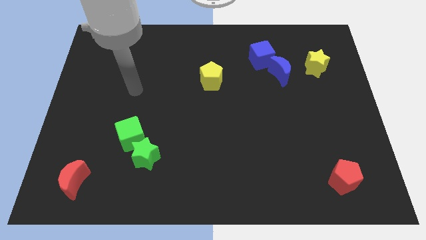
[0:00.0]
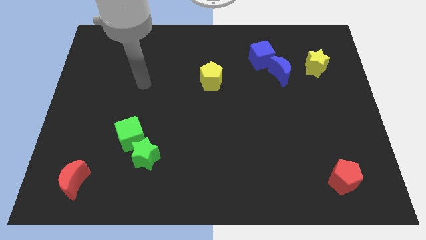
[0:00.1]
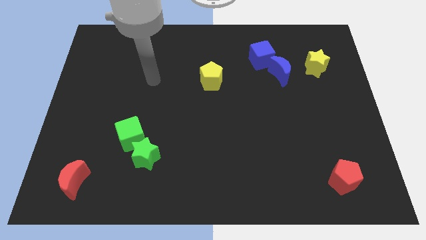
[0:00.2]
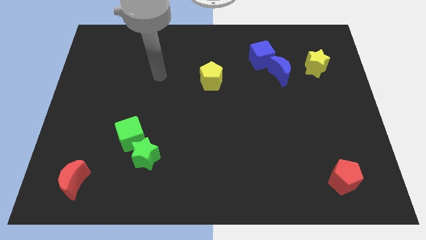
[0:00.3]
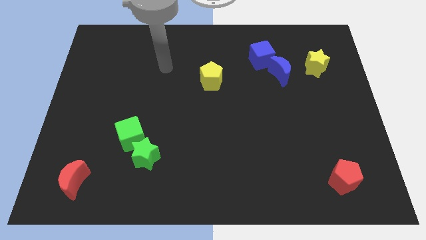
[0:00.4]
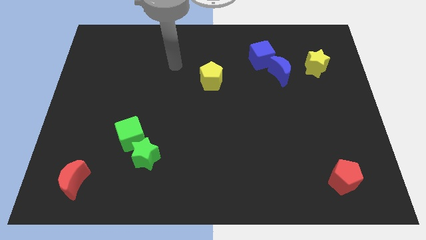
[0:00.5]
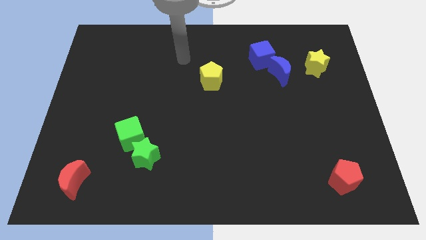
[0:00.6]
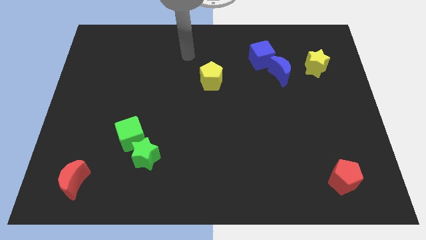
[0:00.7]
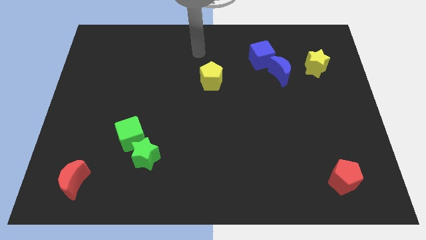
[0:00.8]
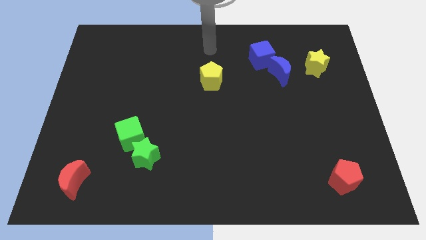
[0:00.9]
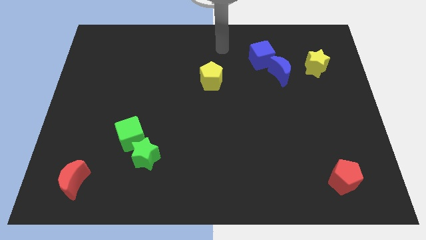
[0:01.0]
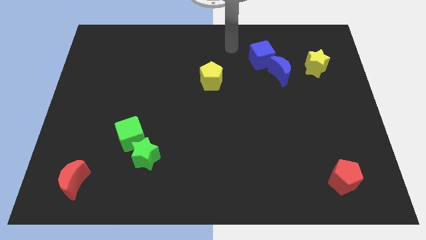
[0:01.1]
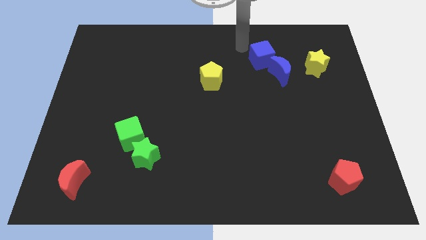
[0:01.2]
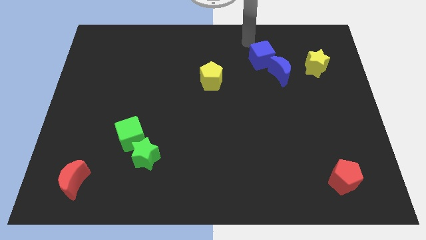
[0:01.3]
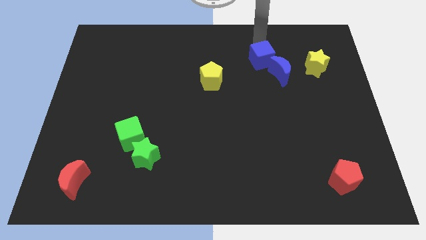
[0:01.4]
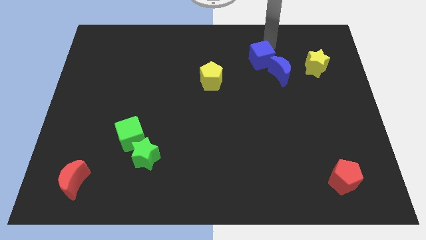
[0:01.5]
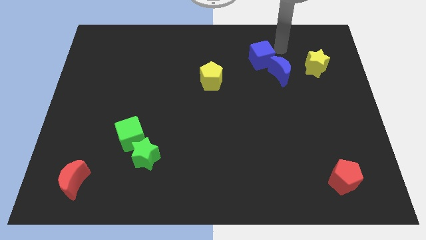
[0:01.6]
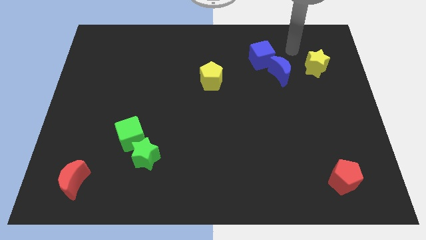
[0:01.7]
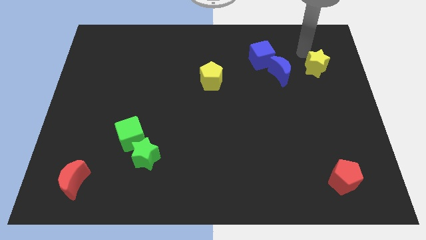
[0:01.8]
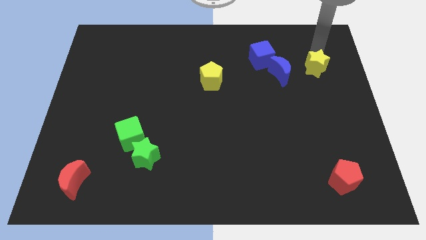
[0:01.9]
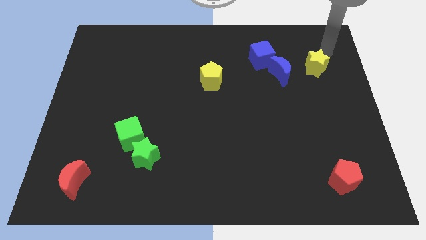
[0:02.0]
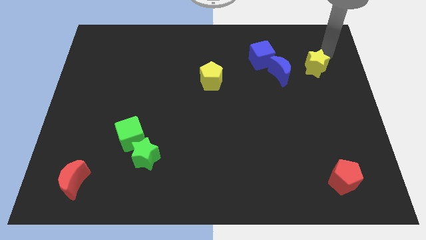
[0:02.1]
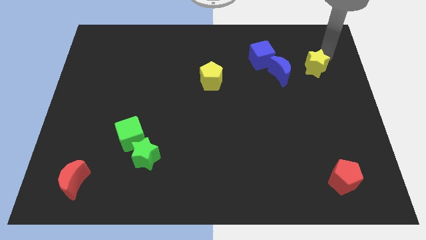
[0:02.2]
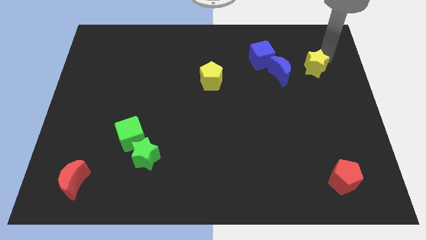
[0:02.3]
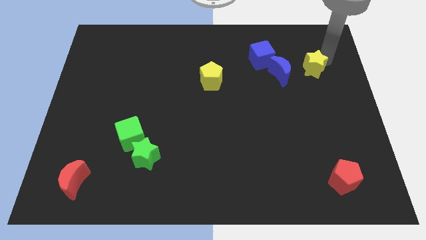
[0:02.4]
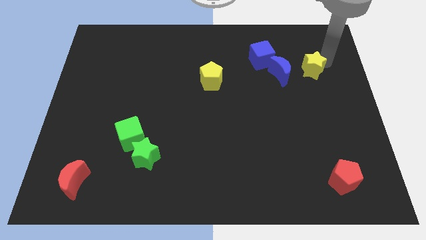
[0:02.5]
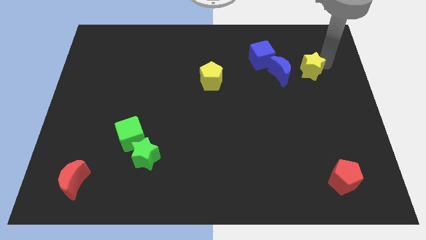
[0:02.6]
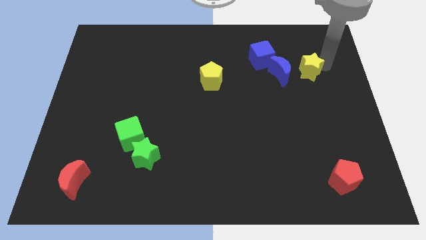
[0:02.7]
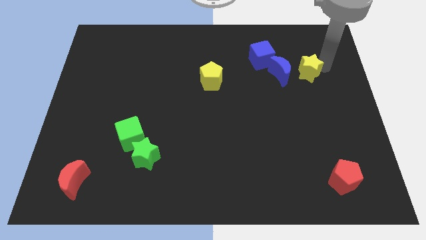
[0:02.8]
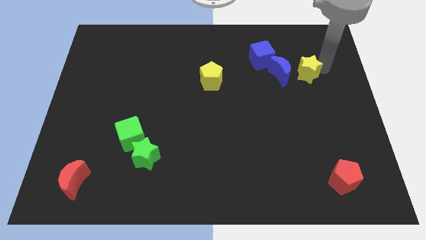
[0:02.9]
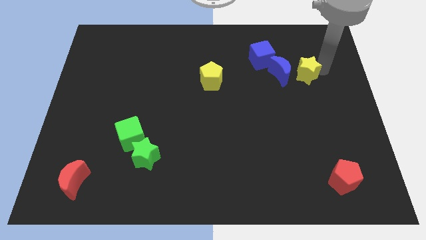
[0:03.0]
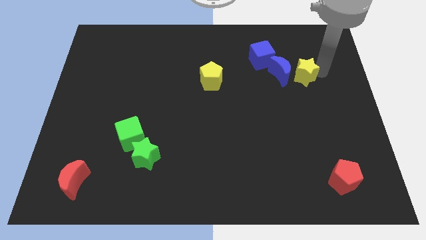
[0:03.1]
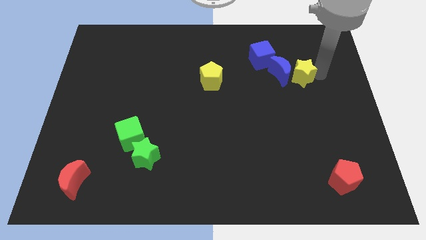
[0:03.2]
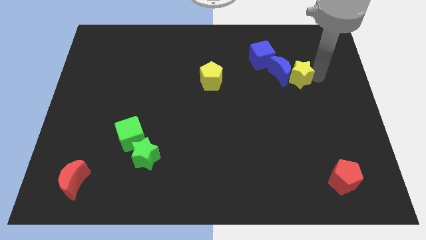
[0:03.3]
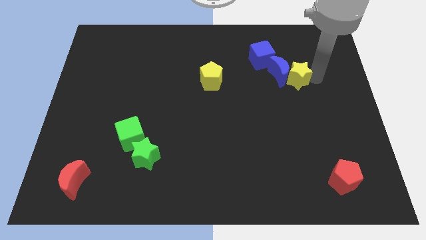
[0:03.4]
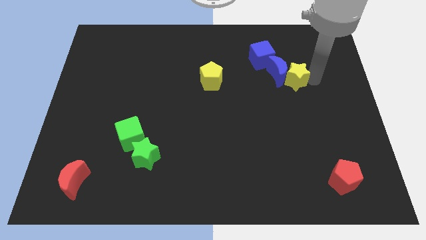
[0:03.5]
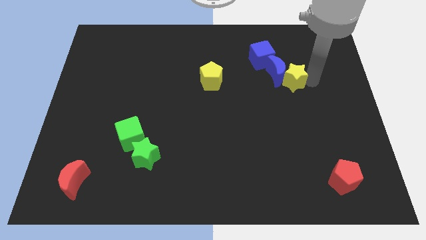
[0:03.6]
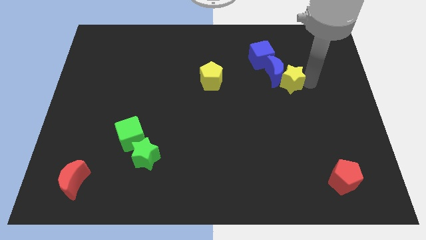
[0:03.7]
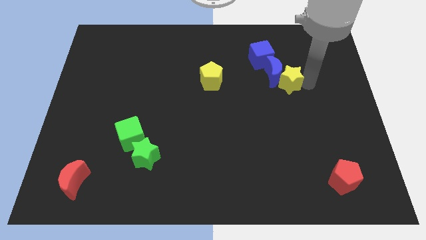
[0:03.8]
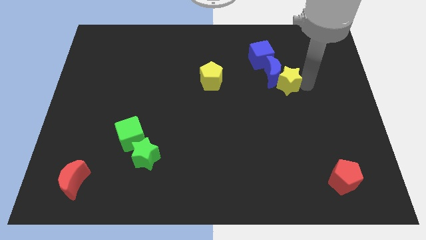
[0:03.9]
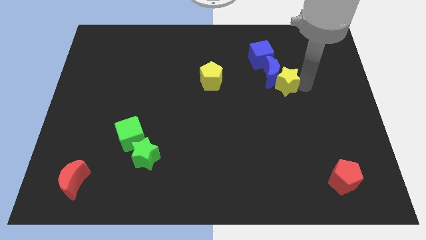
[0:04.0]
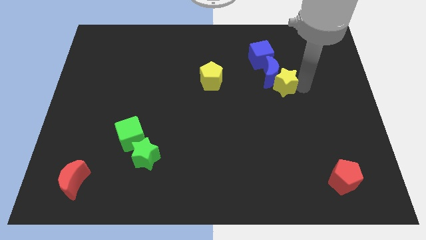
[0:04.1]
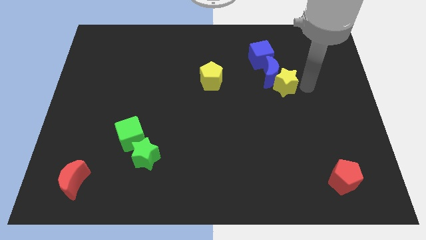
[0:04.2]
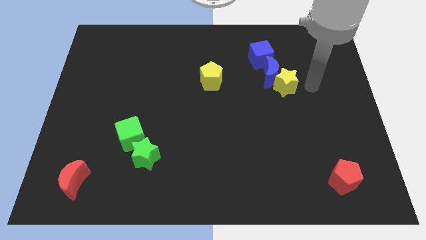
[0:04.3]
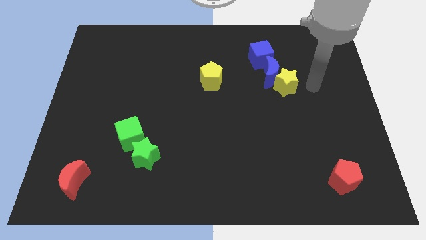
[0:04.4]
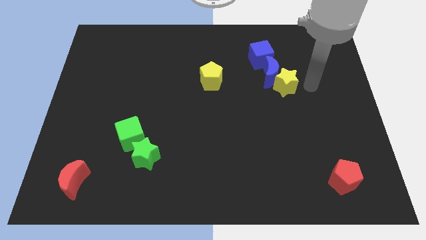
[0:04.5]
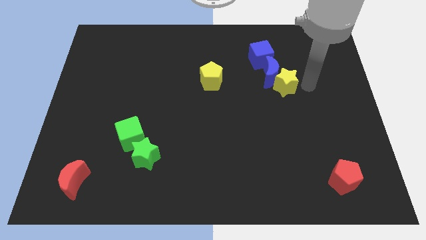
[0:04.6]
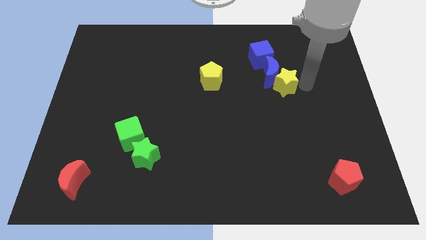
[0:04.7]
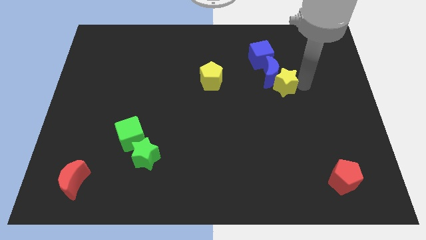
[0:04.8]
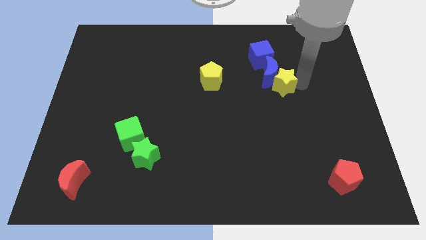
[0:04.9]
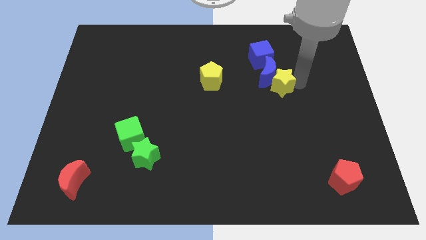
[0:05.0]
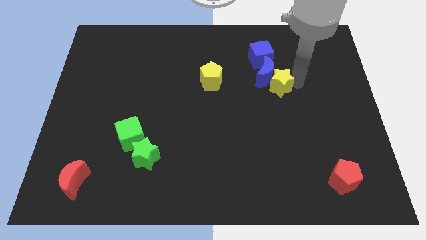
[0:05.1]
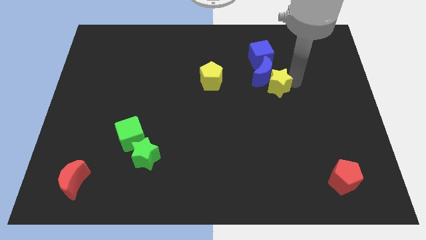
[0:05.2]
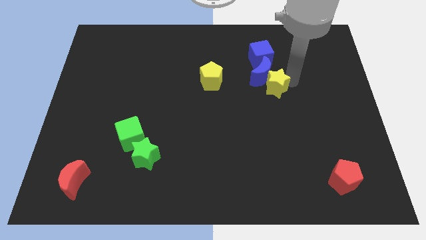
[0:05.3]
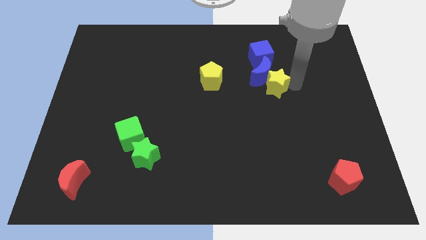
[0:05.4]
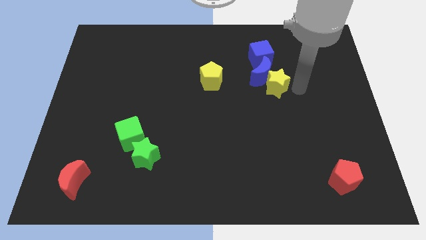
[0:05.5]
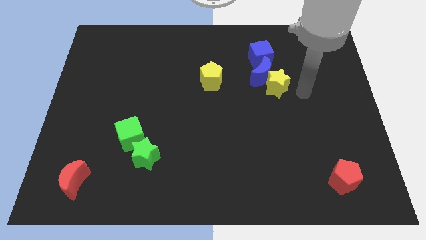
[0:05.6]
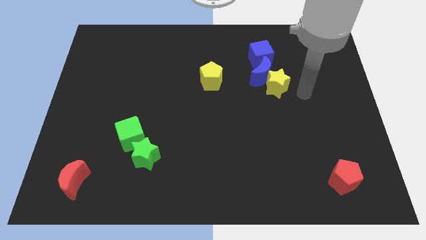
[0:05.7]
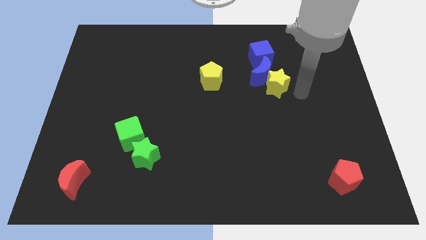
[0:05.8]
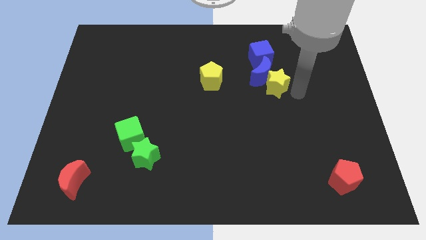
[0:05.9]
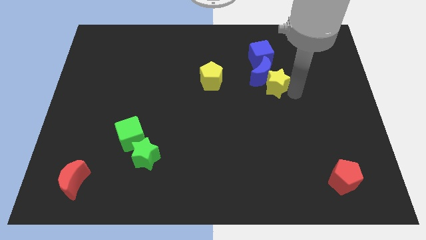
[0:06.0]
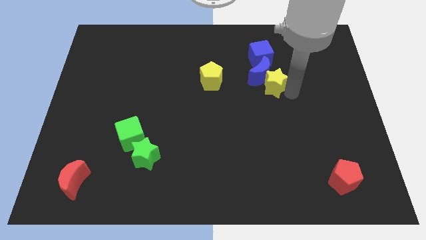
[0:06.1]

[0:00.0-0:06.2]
slide the yellow star right of the yellow pentagon

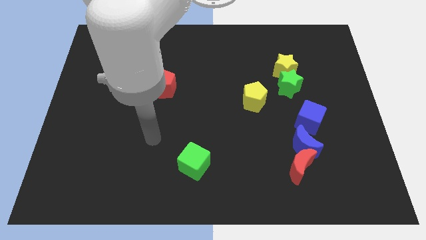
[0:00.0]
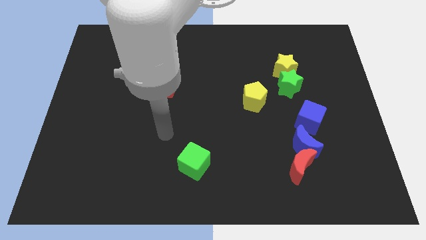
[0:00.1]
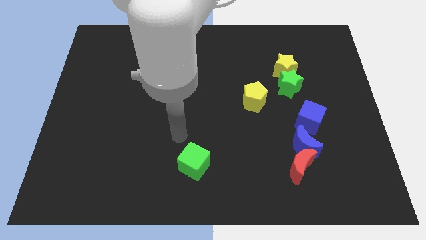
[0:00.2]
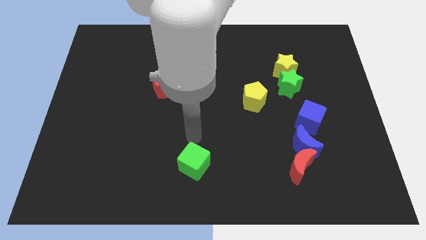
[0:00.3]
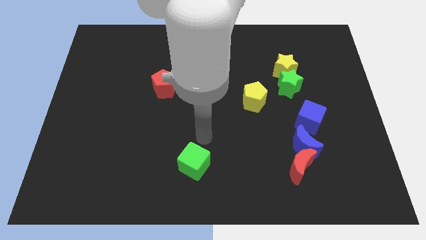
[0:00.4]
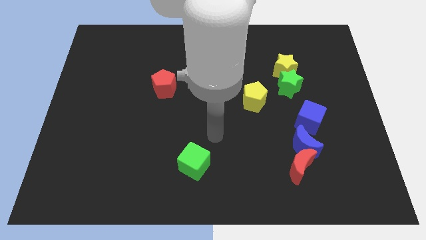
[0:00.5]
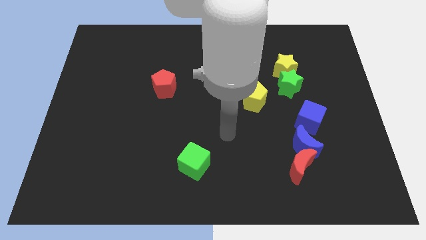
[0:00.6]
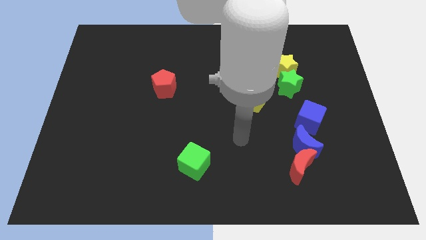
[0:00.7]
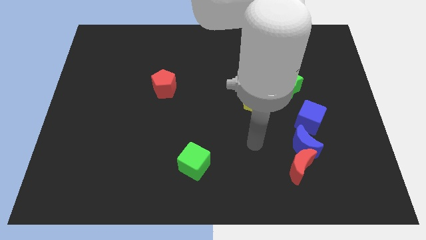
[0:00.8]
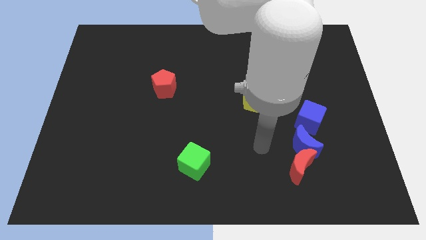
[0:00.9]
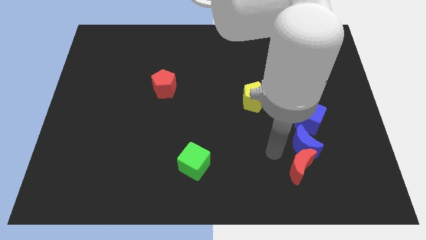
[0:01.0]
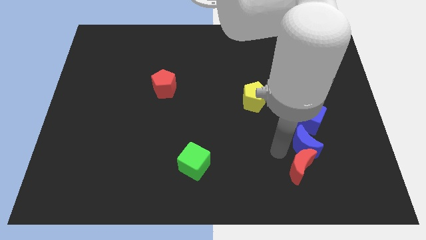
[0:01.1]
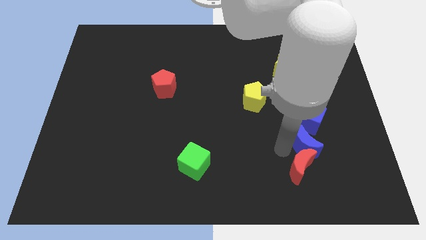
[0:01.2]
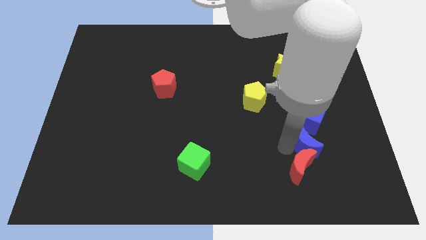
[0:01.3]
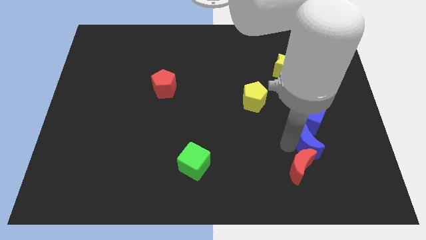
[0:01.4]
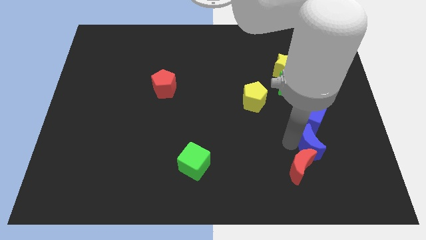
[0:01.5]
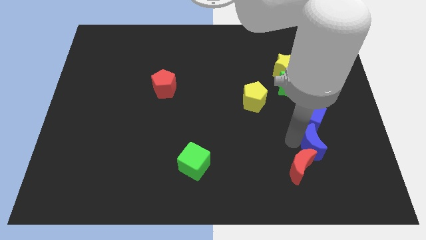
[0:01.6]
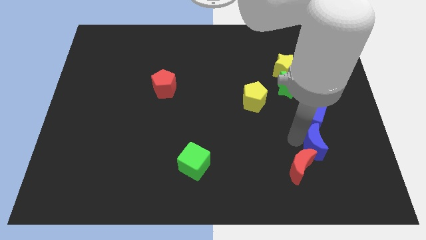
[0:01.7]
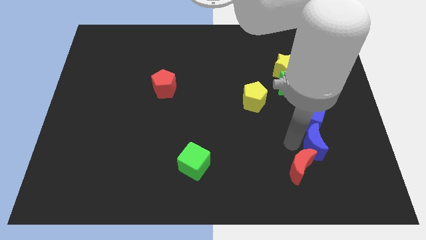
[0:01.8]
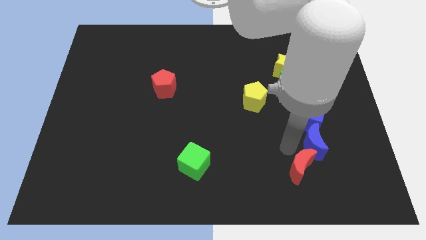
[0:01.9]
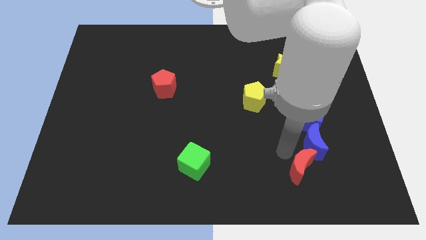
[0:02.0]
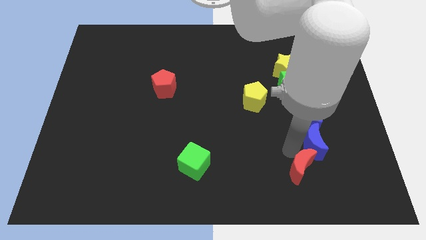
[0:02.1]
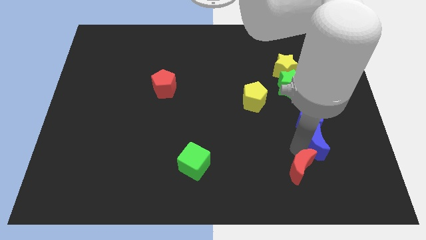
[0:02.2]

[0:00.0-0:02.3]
put the blue moon to the bottom right of the blue cube
